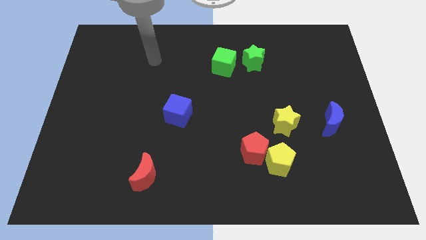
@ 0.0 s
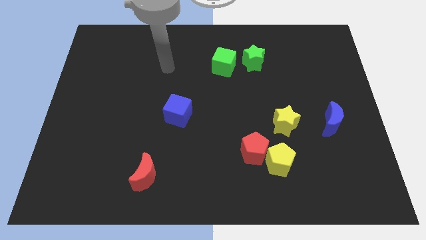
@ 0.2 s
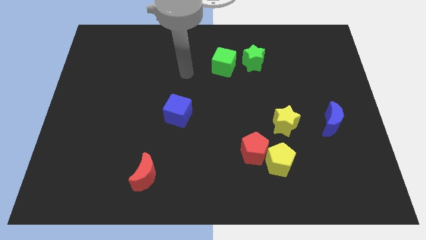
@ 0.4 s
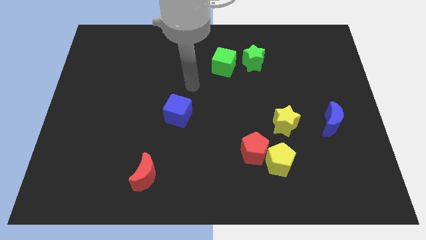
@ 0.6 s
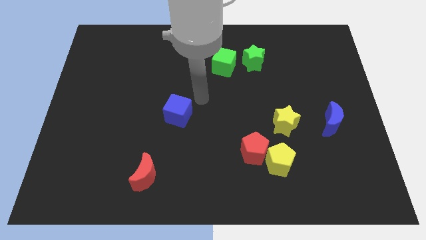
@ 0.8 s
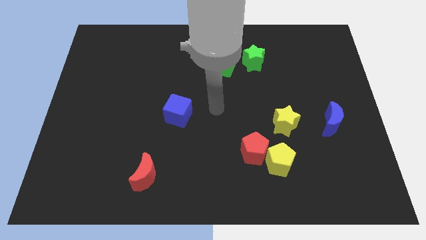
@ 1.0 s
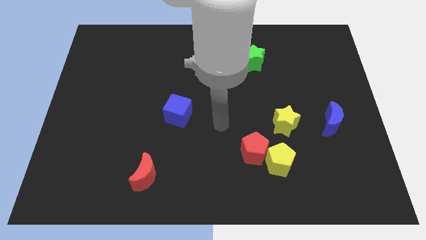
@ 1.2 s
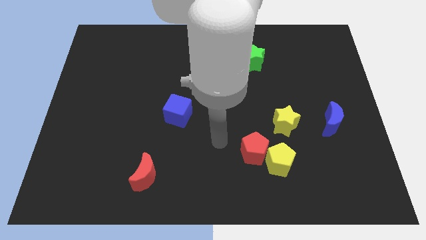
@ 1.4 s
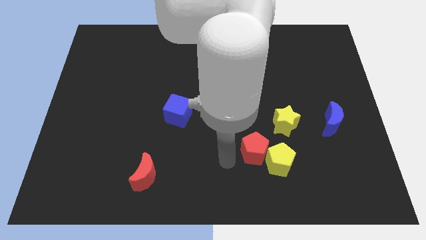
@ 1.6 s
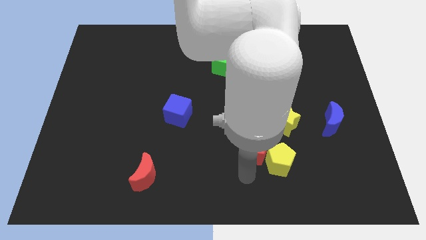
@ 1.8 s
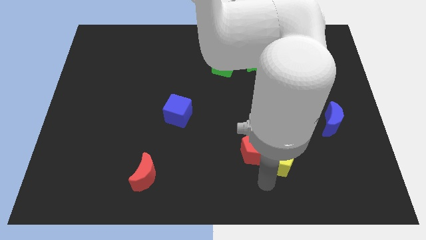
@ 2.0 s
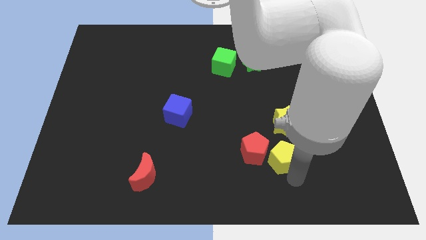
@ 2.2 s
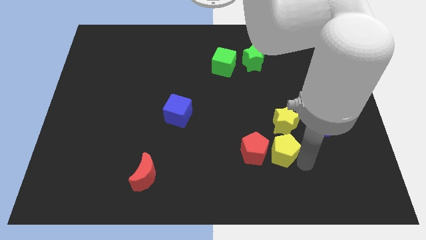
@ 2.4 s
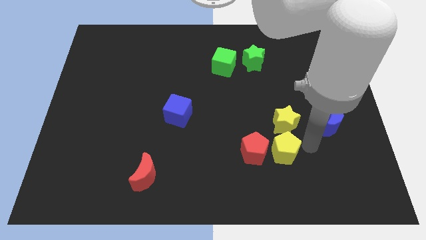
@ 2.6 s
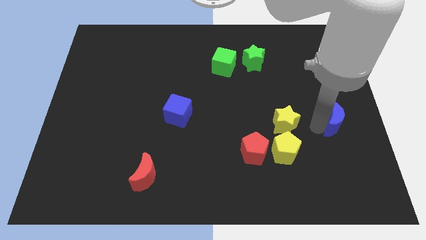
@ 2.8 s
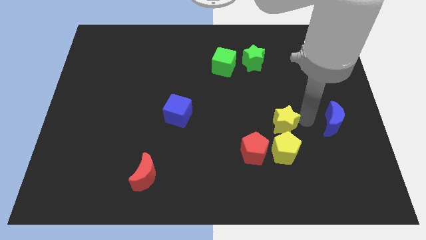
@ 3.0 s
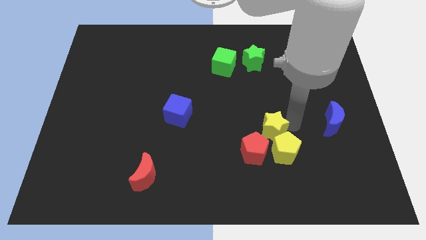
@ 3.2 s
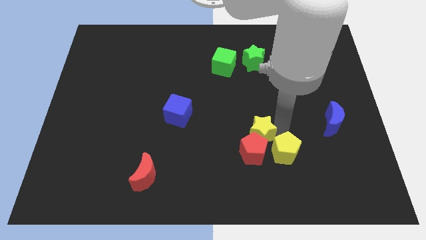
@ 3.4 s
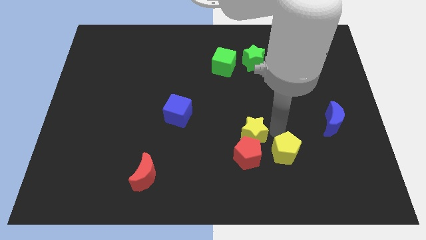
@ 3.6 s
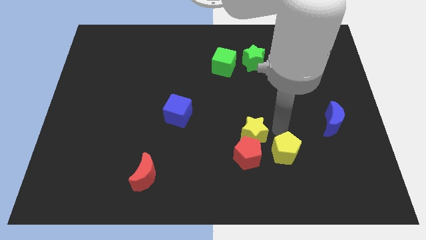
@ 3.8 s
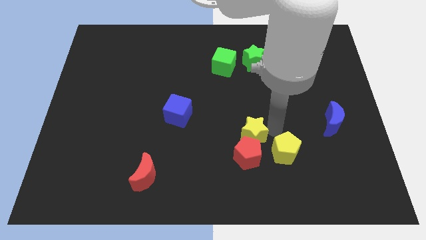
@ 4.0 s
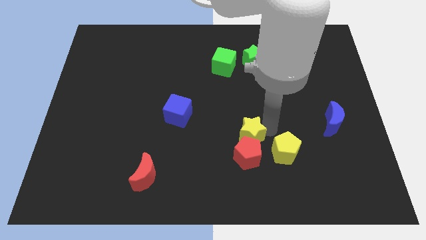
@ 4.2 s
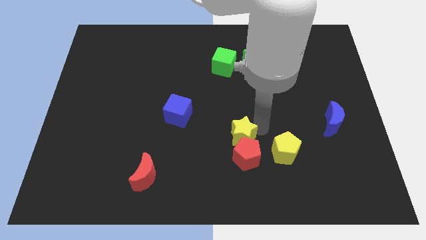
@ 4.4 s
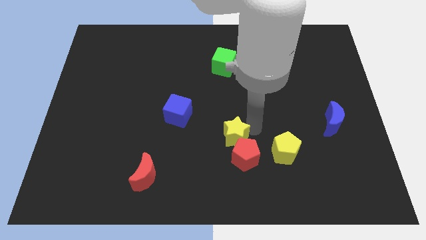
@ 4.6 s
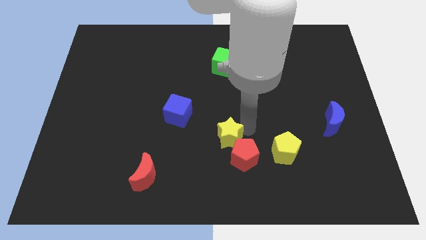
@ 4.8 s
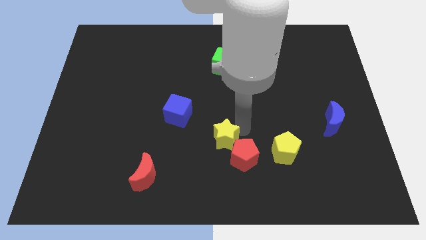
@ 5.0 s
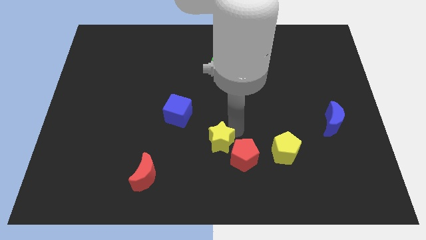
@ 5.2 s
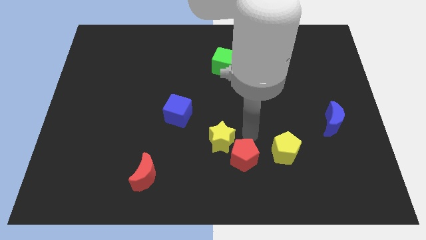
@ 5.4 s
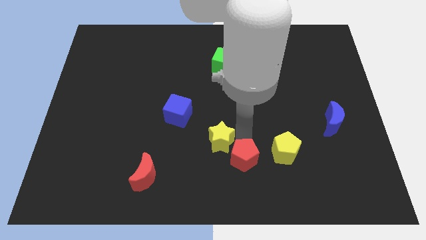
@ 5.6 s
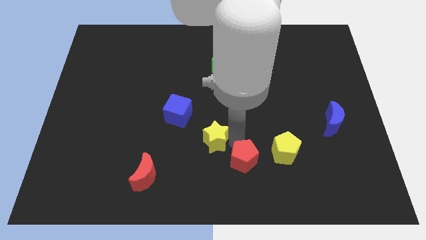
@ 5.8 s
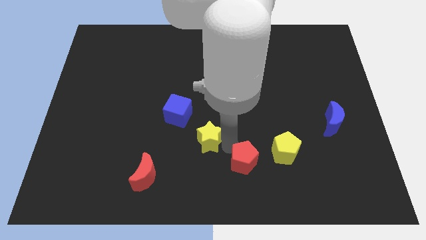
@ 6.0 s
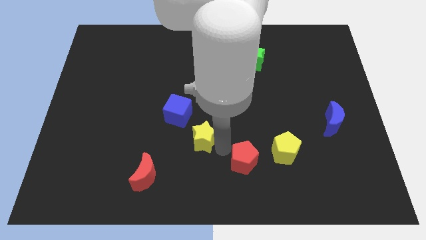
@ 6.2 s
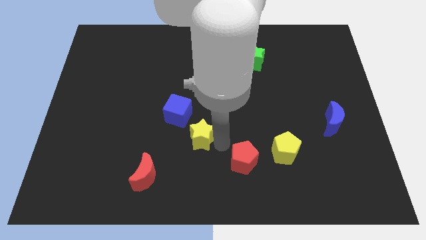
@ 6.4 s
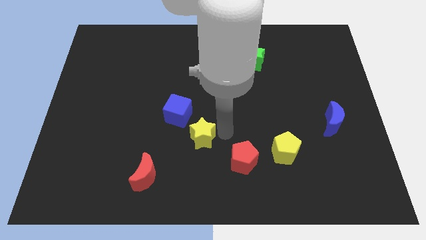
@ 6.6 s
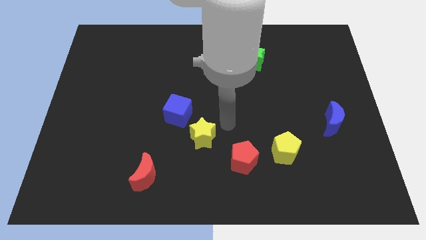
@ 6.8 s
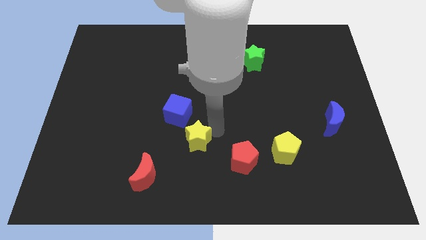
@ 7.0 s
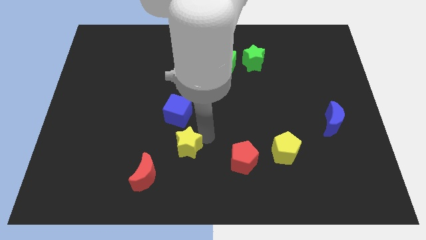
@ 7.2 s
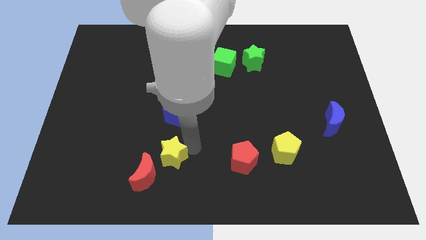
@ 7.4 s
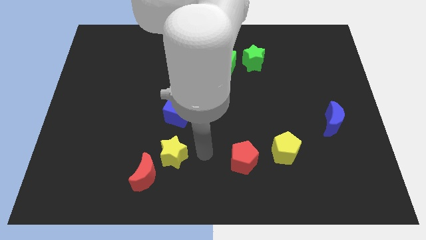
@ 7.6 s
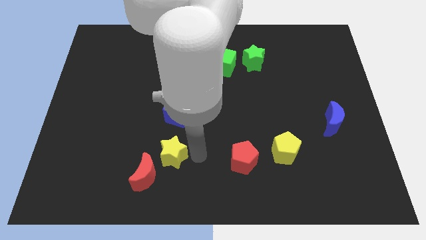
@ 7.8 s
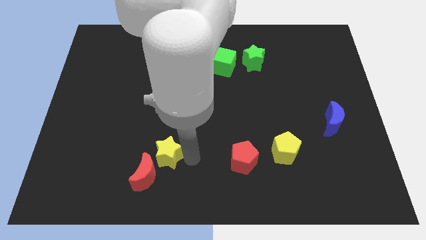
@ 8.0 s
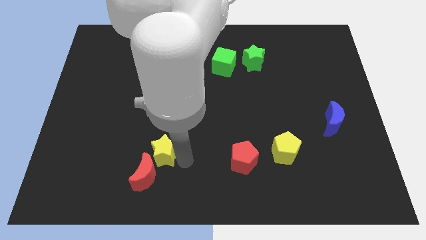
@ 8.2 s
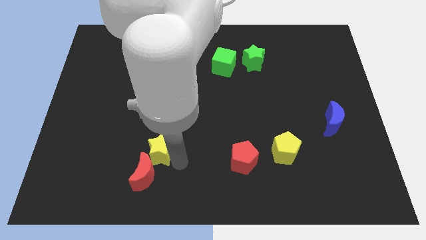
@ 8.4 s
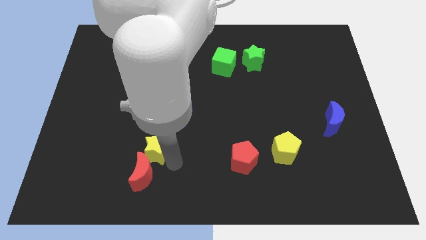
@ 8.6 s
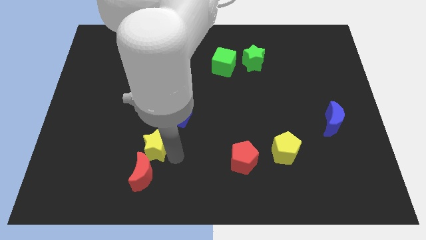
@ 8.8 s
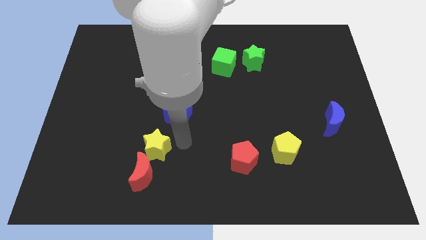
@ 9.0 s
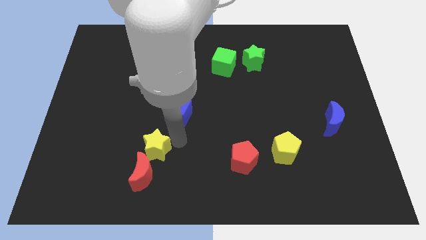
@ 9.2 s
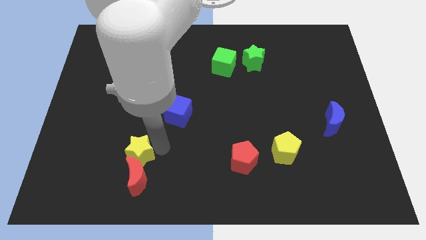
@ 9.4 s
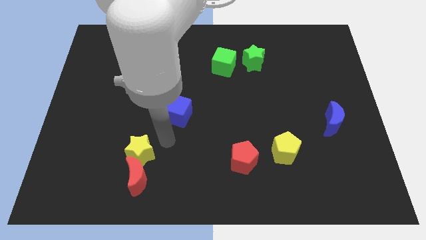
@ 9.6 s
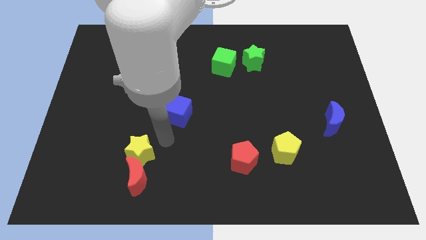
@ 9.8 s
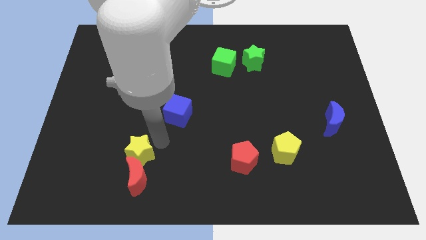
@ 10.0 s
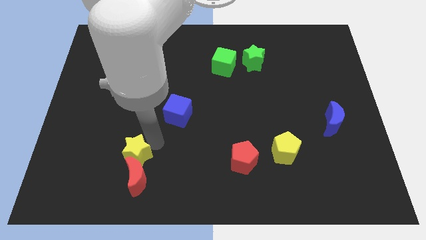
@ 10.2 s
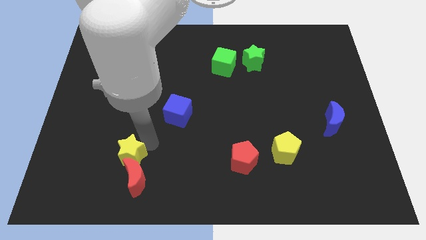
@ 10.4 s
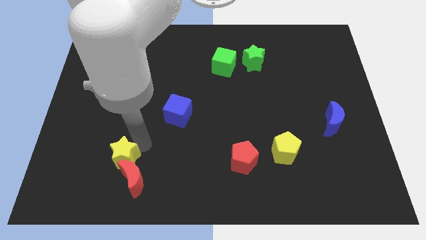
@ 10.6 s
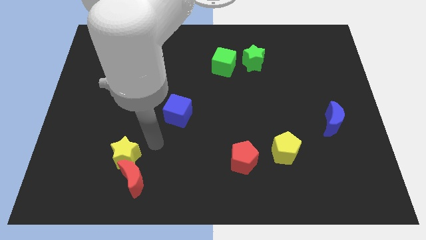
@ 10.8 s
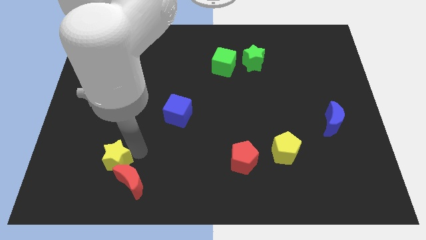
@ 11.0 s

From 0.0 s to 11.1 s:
slide the yellow star to the left side of the red moon

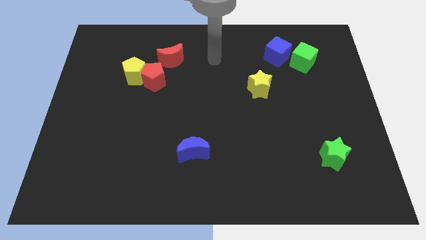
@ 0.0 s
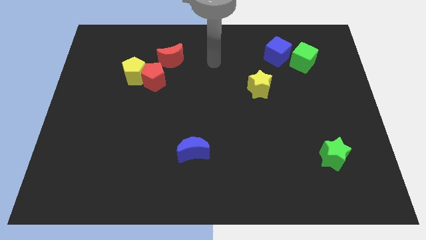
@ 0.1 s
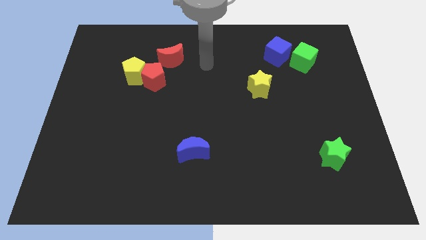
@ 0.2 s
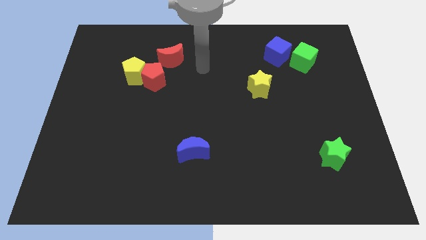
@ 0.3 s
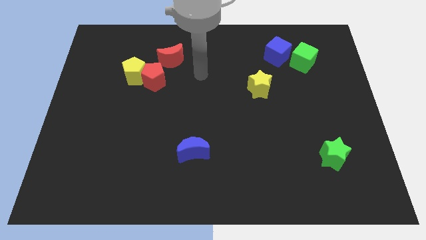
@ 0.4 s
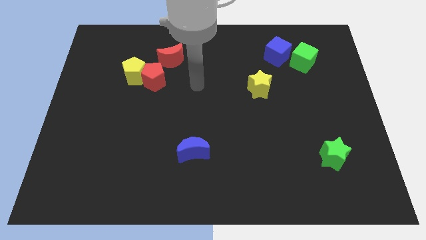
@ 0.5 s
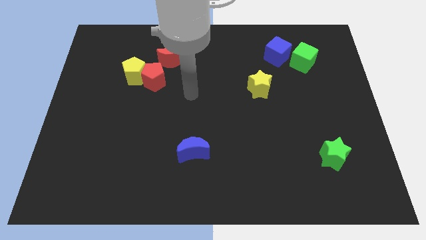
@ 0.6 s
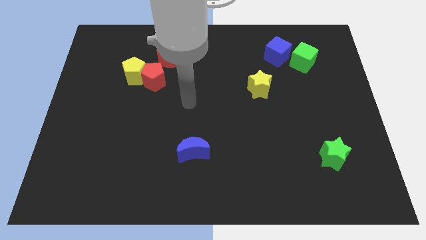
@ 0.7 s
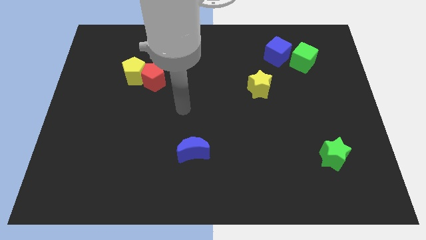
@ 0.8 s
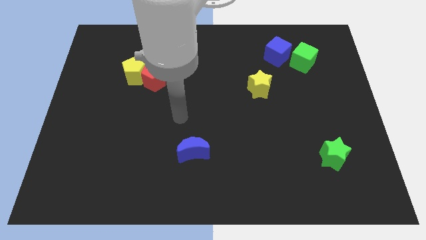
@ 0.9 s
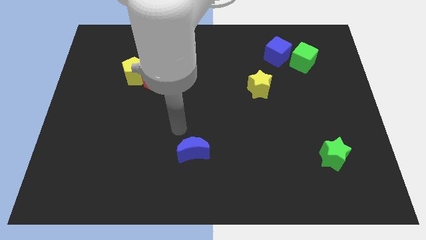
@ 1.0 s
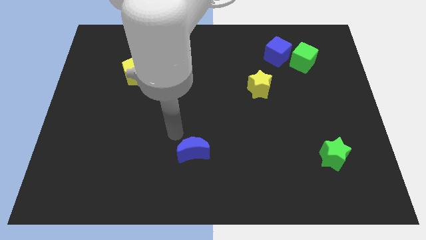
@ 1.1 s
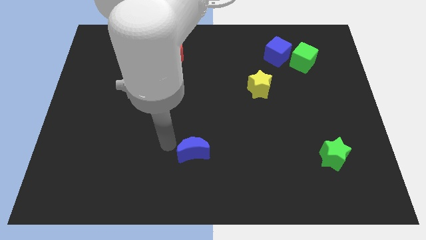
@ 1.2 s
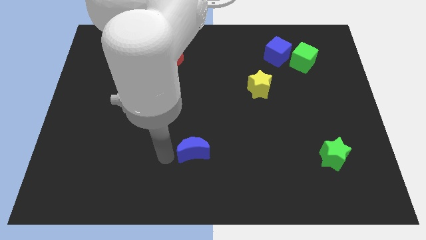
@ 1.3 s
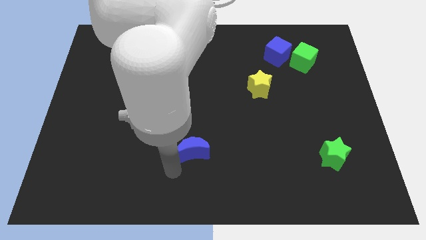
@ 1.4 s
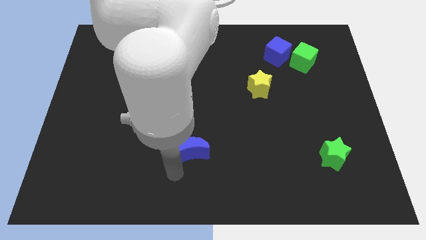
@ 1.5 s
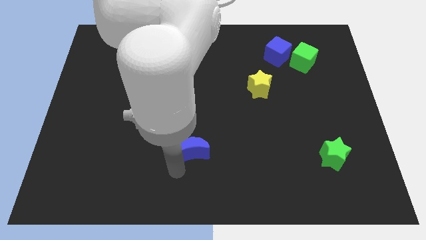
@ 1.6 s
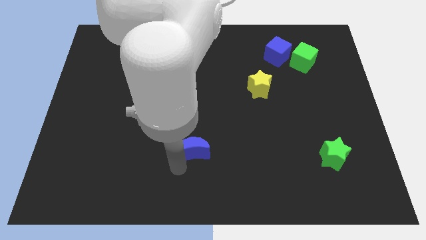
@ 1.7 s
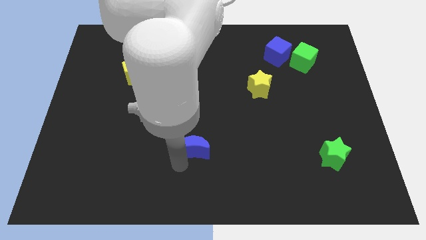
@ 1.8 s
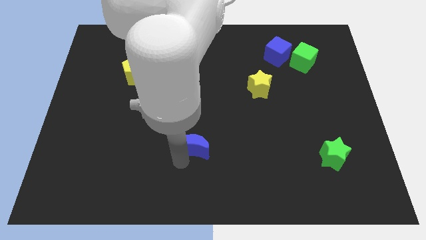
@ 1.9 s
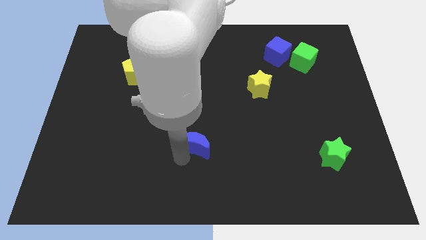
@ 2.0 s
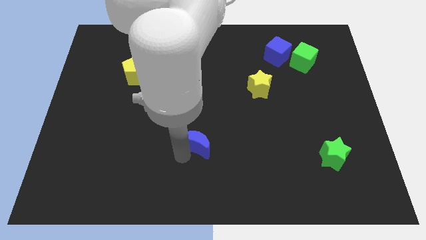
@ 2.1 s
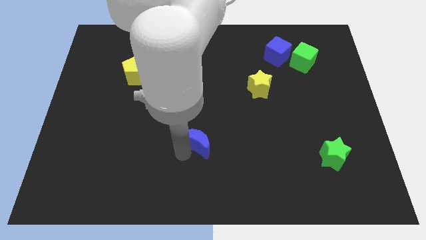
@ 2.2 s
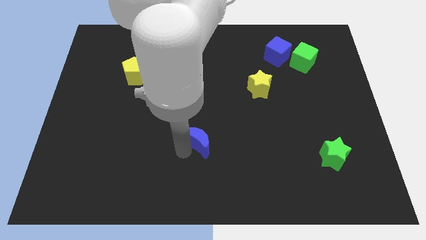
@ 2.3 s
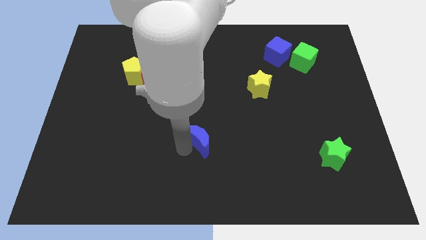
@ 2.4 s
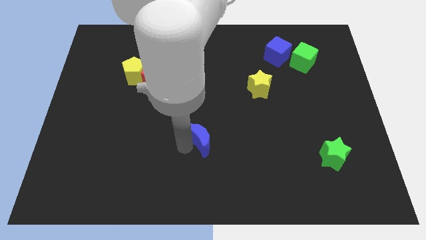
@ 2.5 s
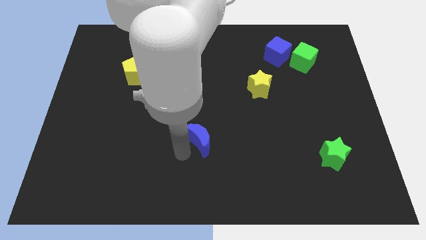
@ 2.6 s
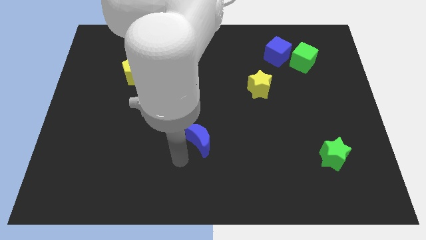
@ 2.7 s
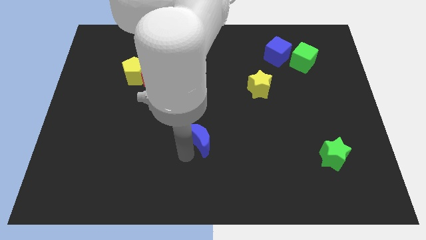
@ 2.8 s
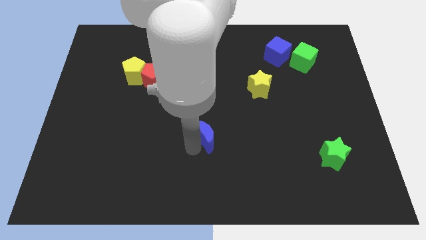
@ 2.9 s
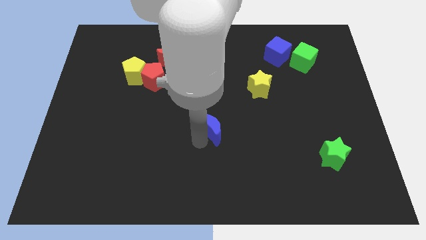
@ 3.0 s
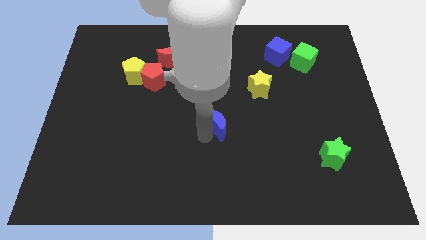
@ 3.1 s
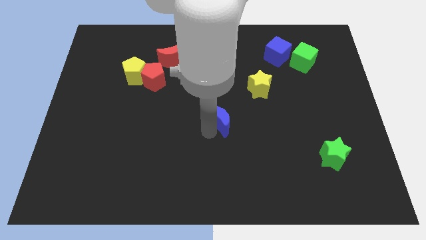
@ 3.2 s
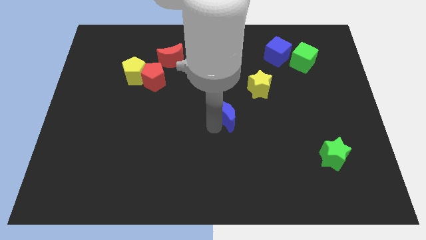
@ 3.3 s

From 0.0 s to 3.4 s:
put the blue moon to the bottom left side of the yellow star
